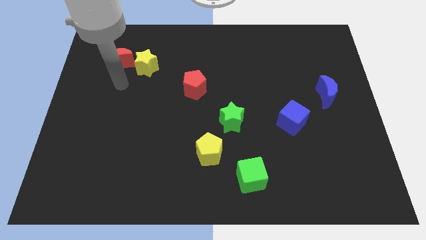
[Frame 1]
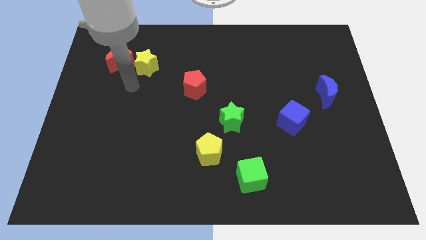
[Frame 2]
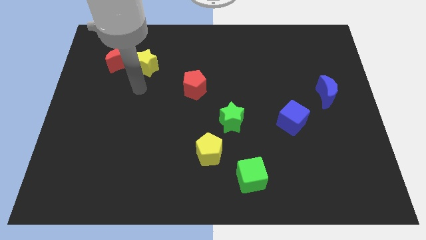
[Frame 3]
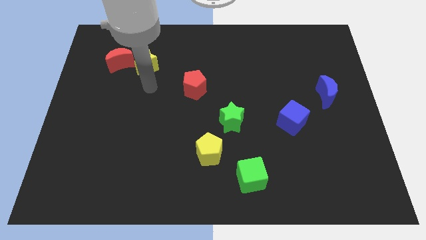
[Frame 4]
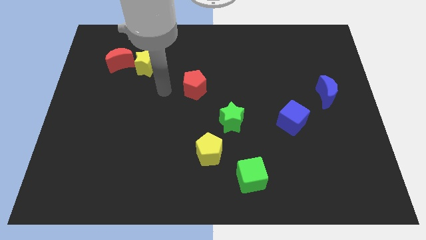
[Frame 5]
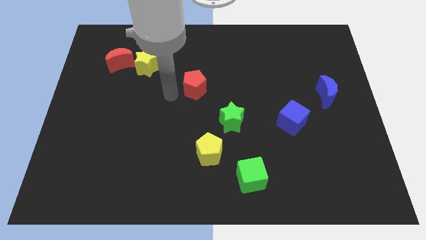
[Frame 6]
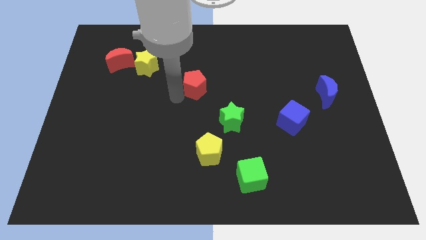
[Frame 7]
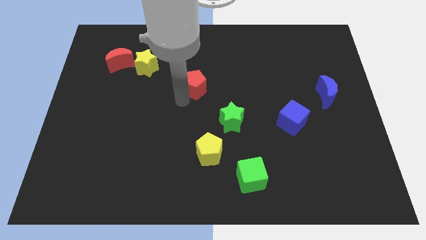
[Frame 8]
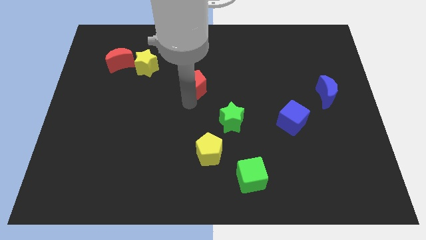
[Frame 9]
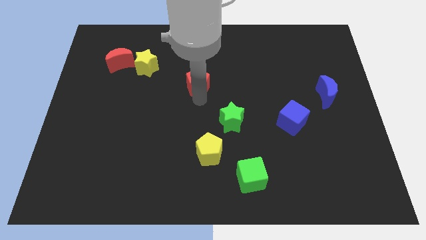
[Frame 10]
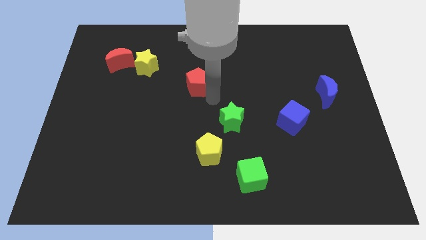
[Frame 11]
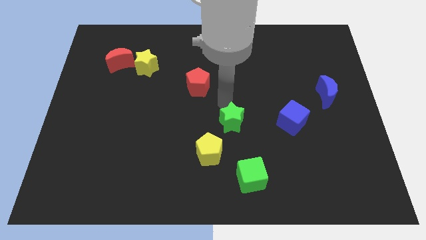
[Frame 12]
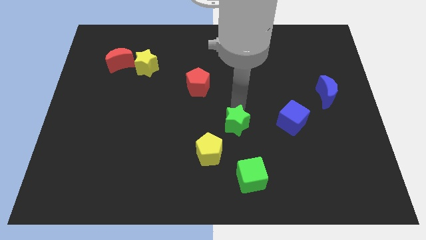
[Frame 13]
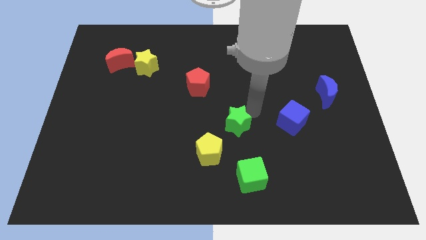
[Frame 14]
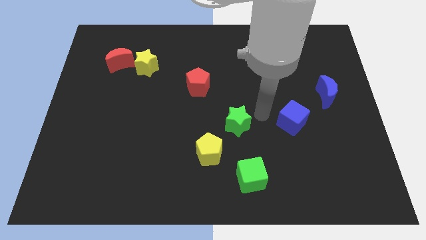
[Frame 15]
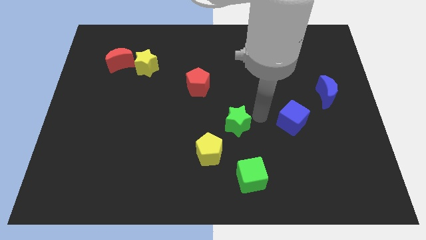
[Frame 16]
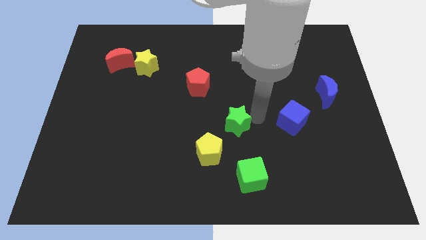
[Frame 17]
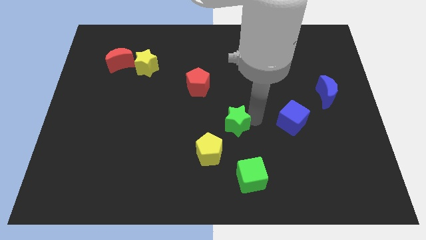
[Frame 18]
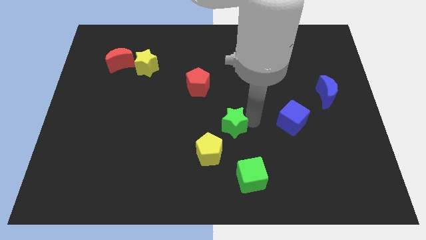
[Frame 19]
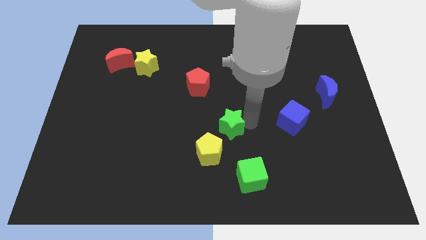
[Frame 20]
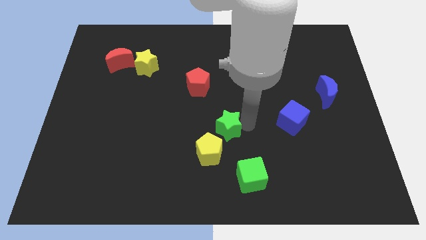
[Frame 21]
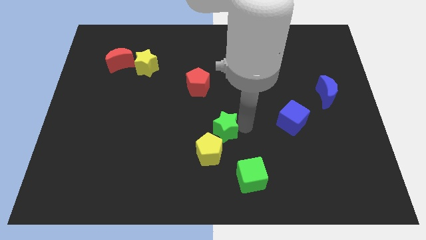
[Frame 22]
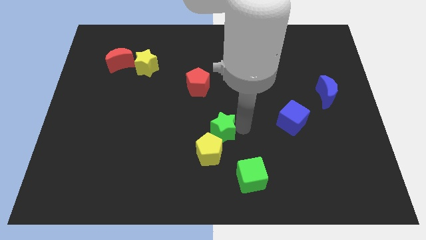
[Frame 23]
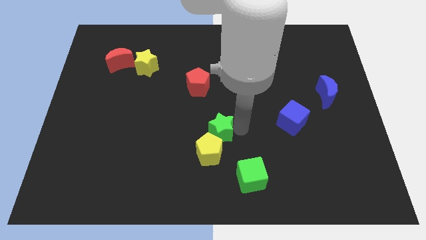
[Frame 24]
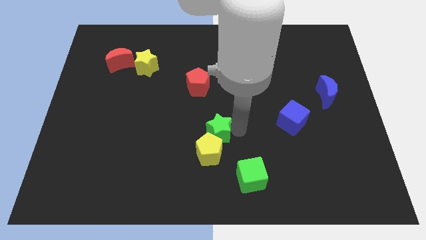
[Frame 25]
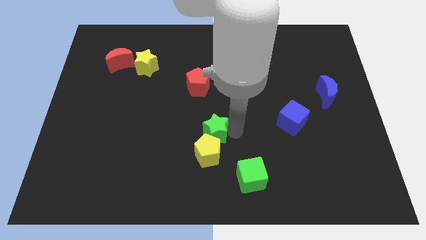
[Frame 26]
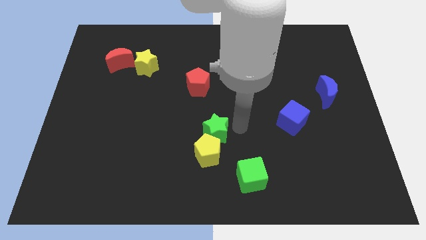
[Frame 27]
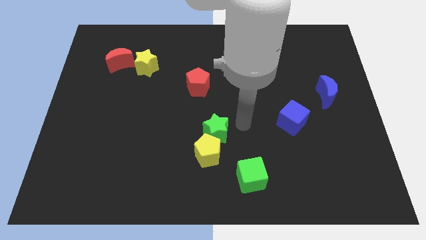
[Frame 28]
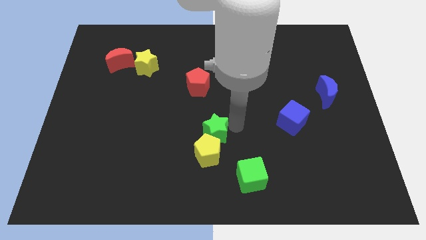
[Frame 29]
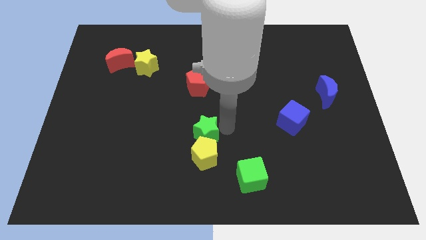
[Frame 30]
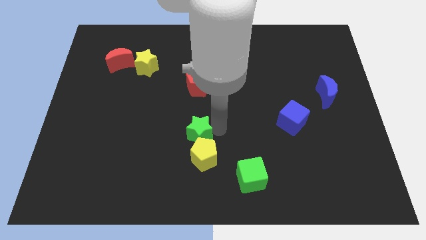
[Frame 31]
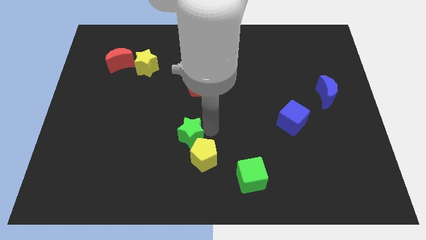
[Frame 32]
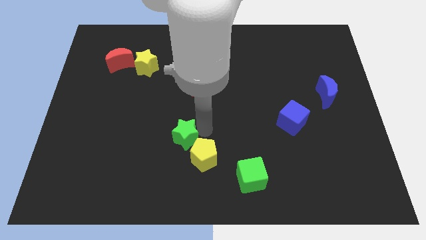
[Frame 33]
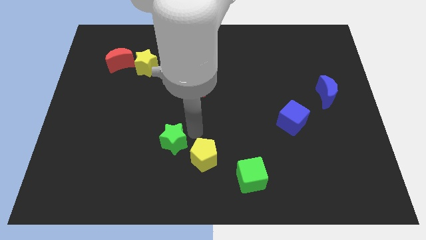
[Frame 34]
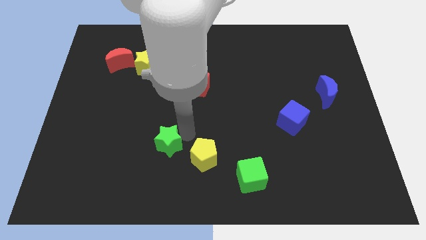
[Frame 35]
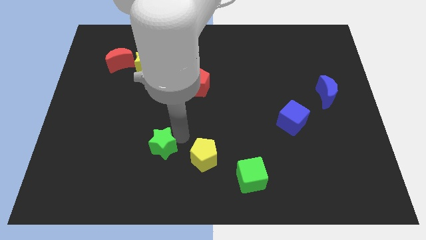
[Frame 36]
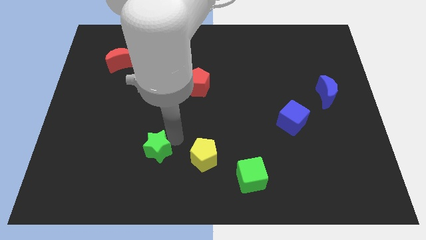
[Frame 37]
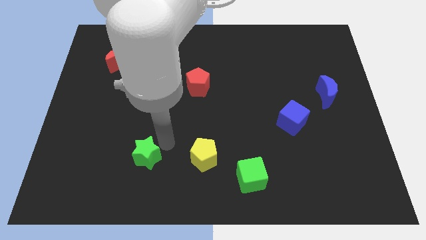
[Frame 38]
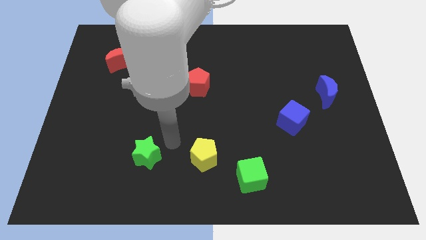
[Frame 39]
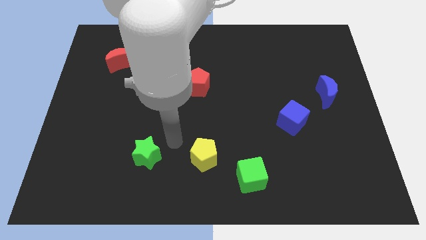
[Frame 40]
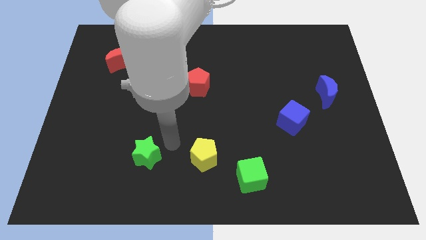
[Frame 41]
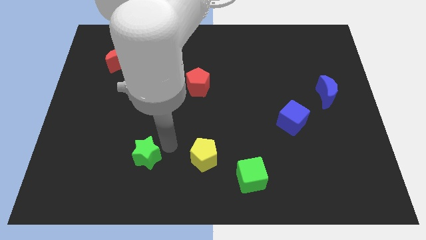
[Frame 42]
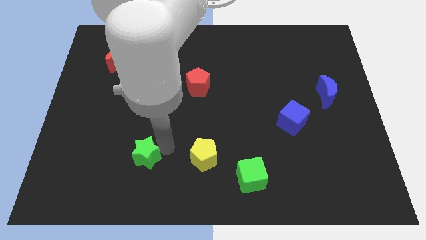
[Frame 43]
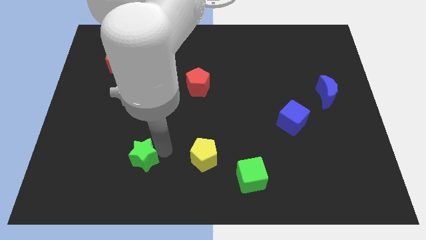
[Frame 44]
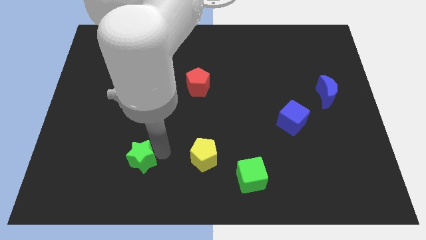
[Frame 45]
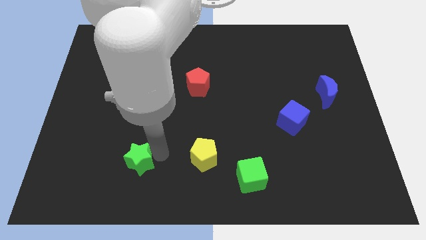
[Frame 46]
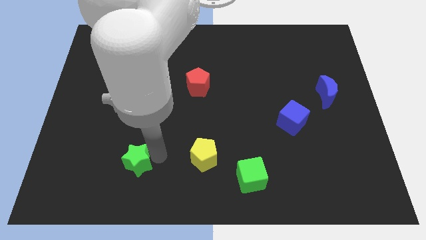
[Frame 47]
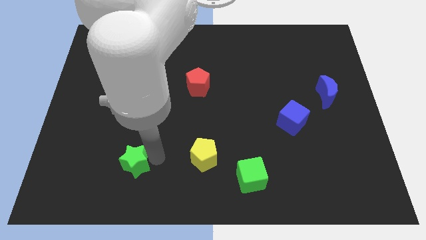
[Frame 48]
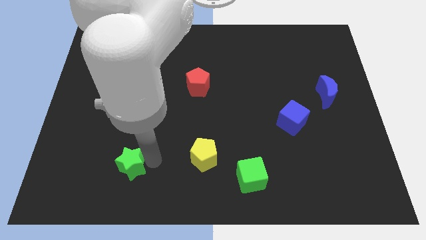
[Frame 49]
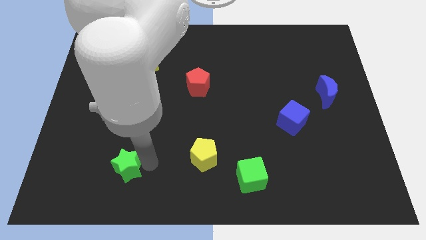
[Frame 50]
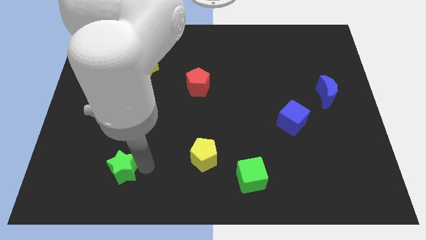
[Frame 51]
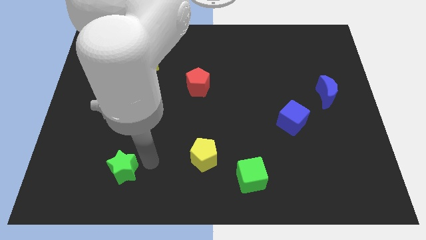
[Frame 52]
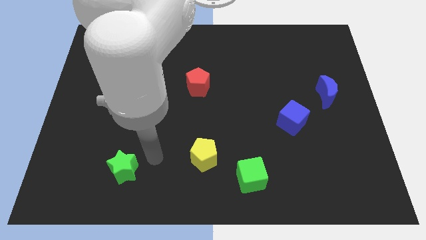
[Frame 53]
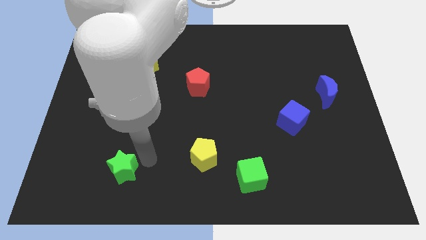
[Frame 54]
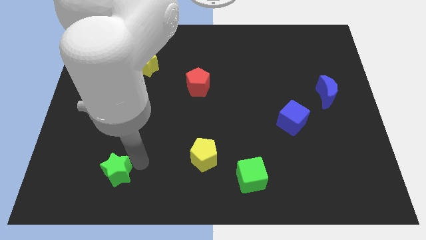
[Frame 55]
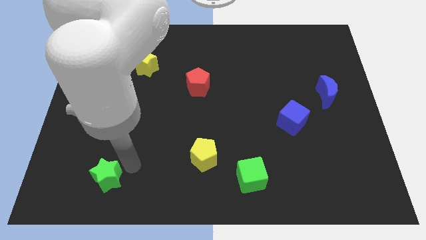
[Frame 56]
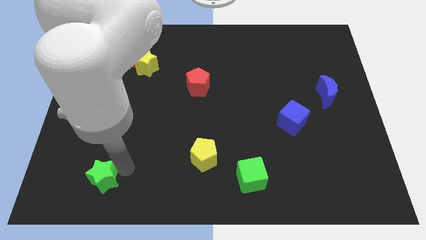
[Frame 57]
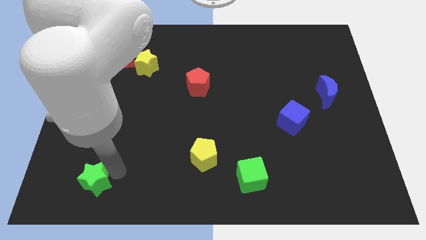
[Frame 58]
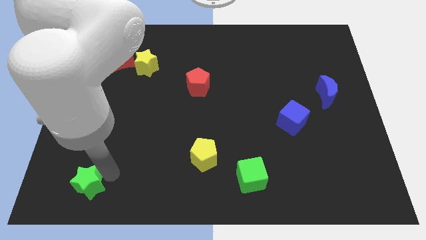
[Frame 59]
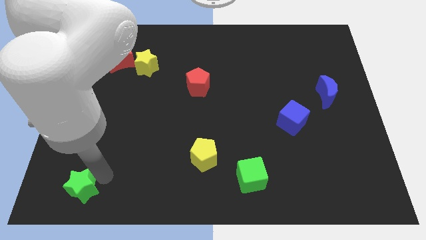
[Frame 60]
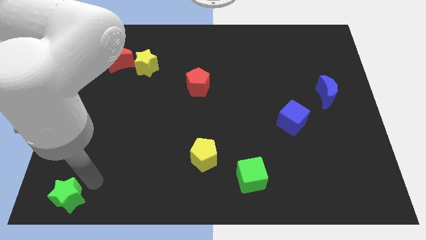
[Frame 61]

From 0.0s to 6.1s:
push the green star to the lower left corner
